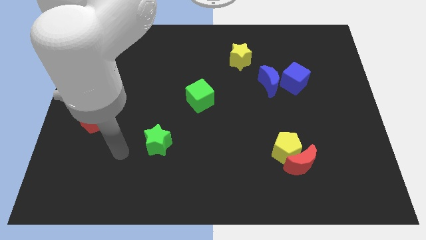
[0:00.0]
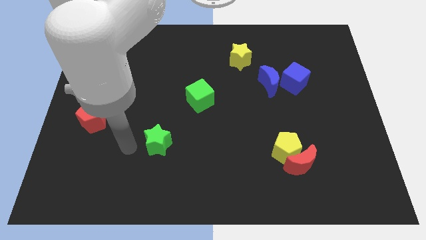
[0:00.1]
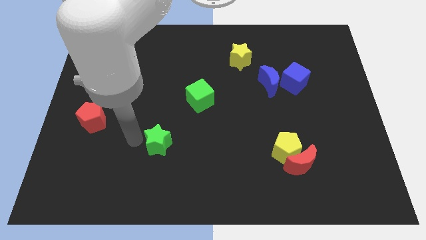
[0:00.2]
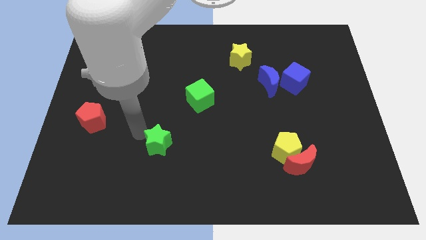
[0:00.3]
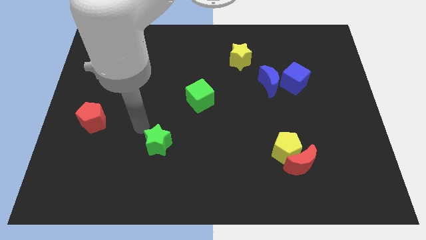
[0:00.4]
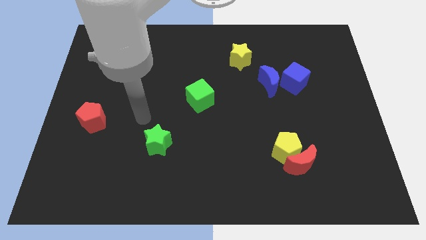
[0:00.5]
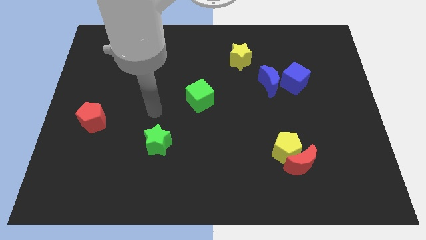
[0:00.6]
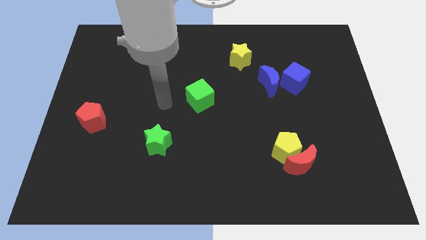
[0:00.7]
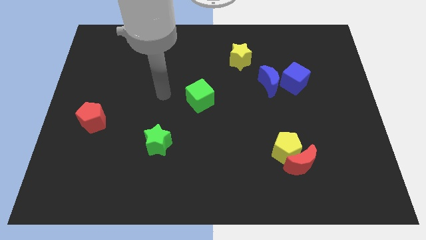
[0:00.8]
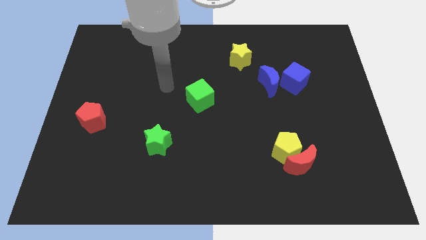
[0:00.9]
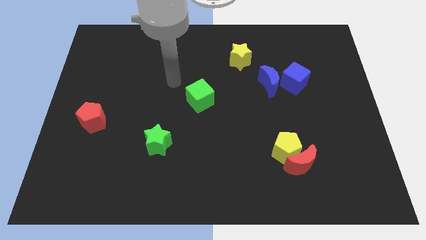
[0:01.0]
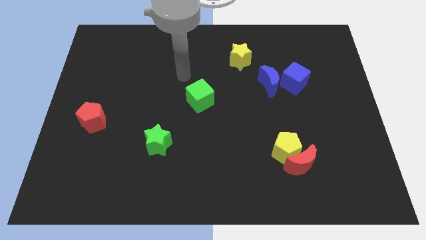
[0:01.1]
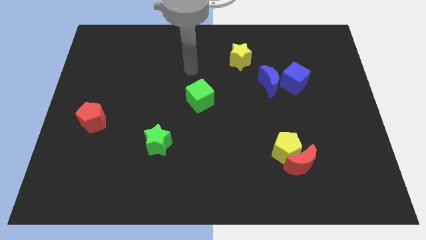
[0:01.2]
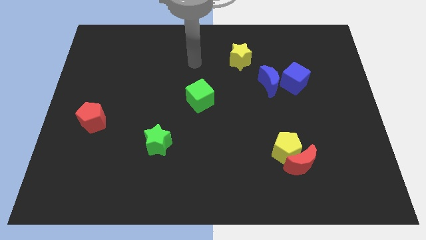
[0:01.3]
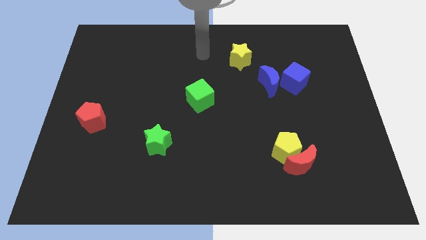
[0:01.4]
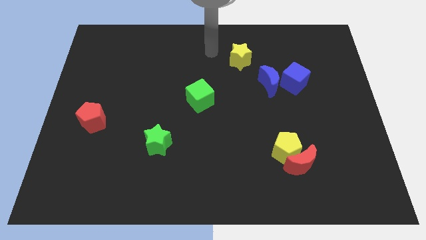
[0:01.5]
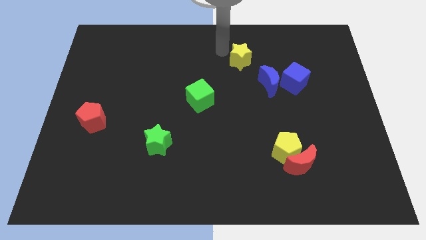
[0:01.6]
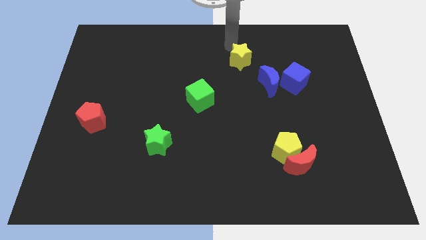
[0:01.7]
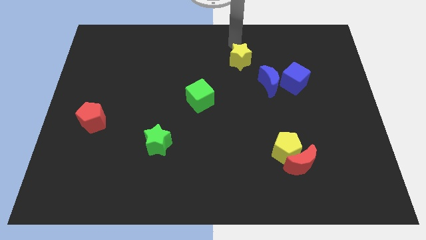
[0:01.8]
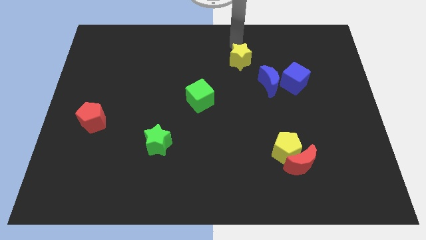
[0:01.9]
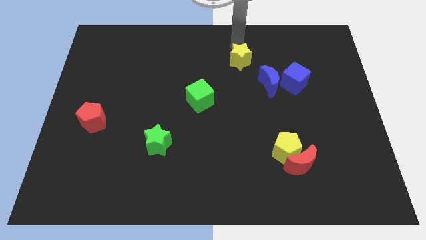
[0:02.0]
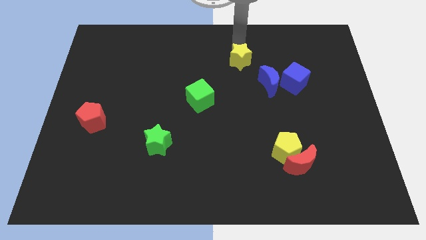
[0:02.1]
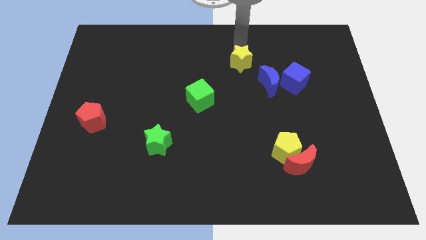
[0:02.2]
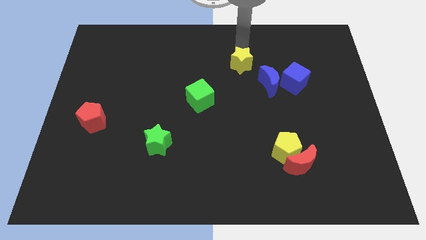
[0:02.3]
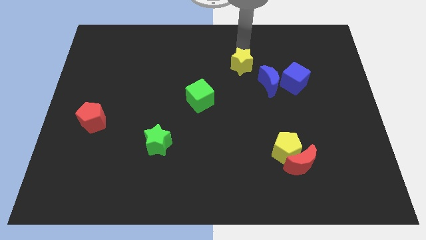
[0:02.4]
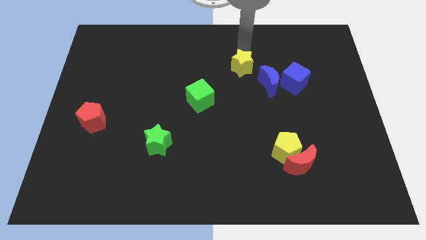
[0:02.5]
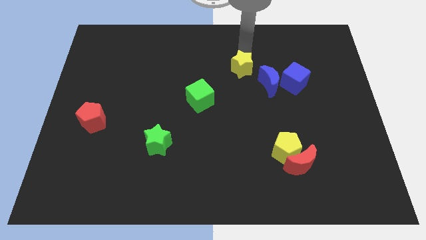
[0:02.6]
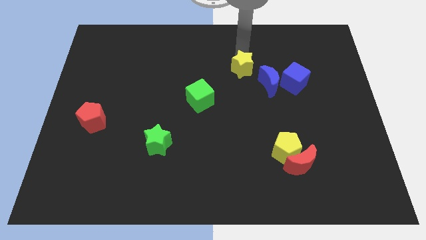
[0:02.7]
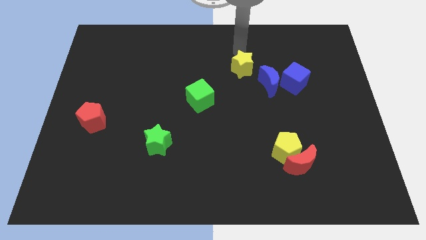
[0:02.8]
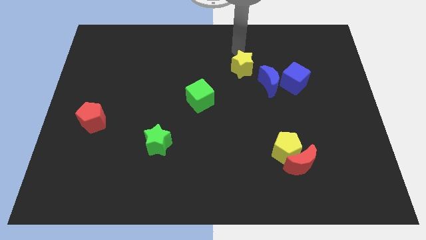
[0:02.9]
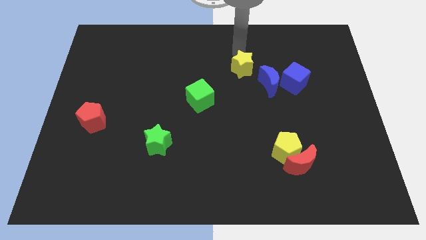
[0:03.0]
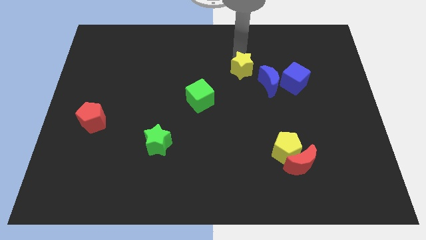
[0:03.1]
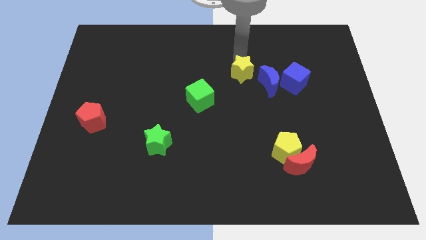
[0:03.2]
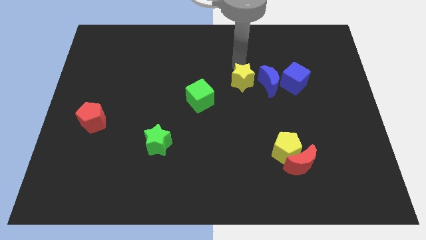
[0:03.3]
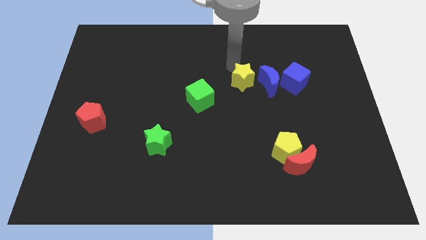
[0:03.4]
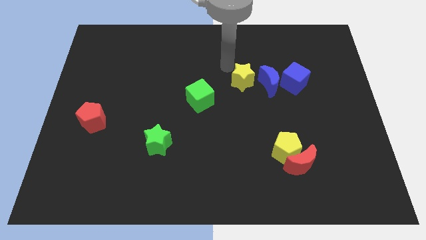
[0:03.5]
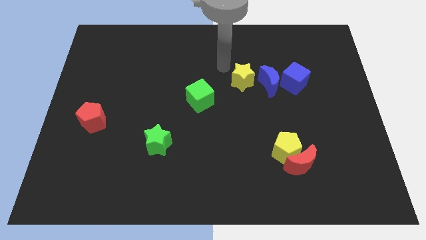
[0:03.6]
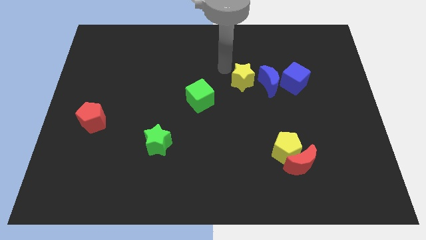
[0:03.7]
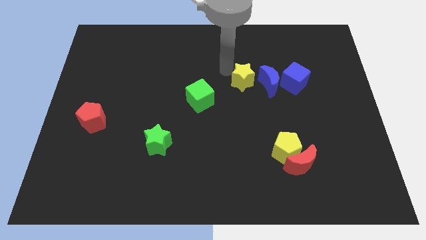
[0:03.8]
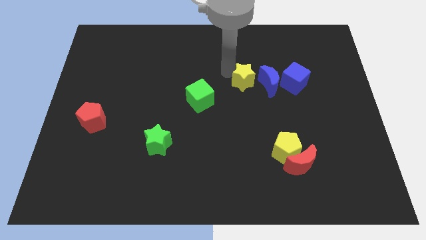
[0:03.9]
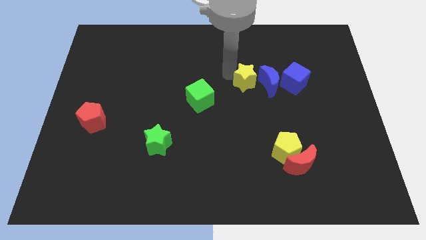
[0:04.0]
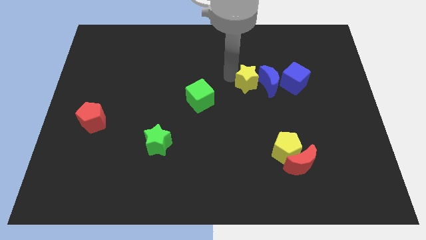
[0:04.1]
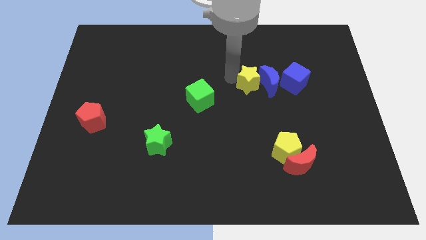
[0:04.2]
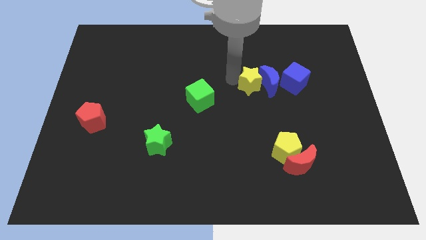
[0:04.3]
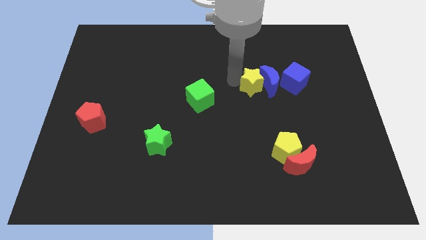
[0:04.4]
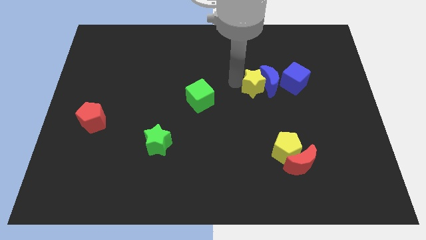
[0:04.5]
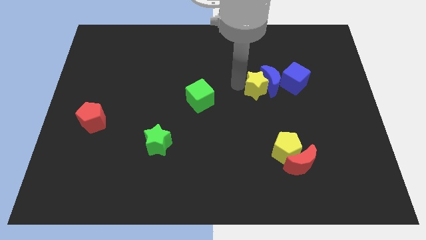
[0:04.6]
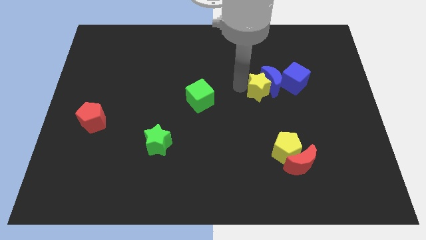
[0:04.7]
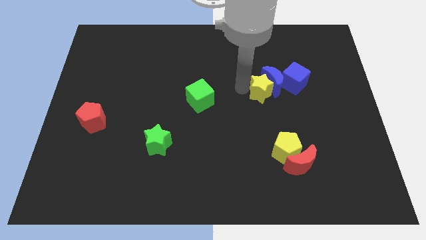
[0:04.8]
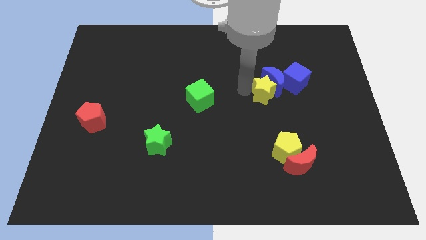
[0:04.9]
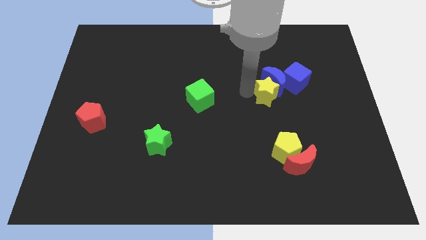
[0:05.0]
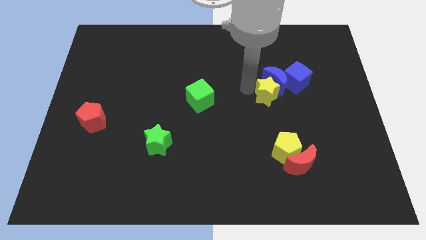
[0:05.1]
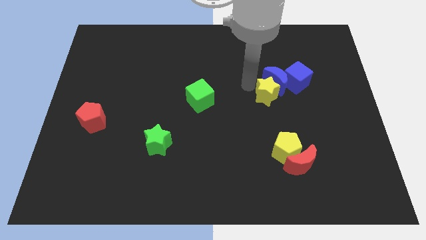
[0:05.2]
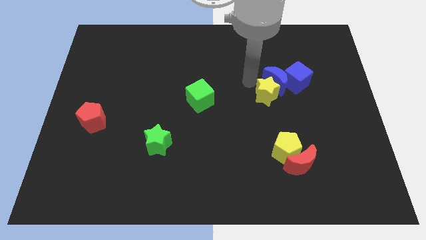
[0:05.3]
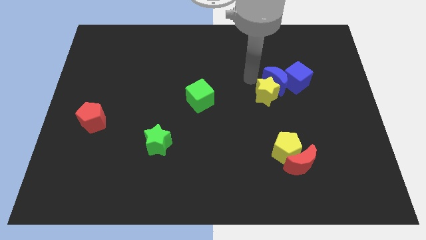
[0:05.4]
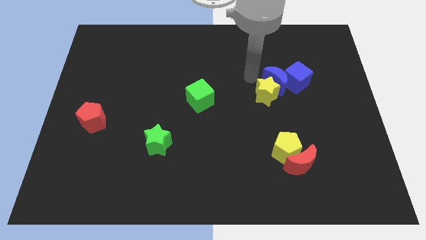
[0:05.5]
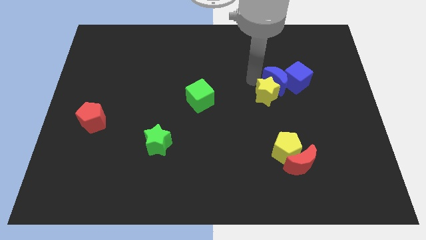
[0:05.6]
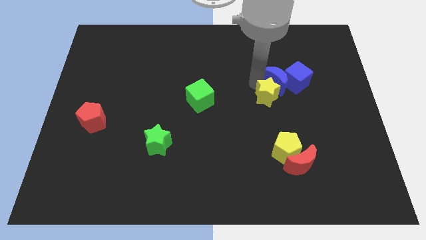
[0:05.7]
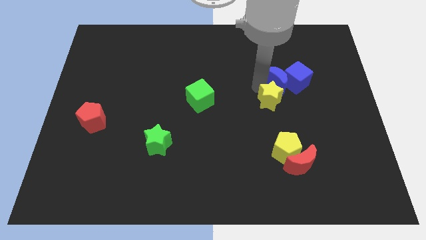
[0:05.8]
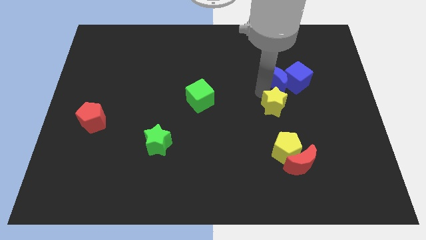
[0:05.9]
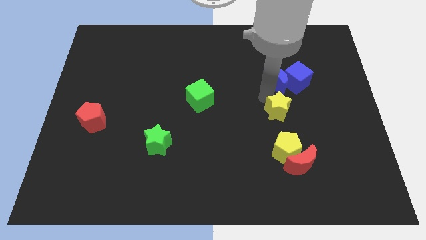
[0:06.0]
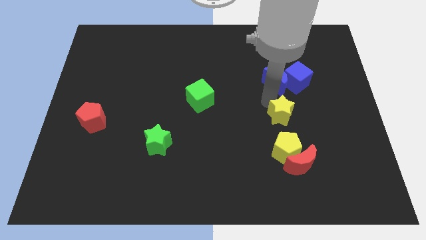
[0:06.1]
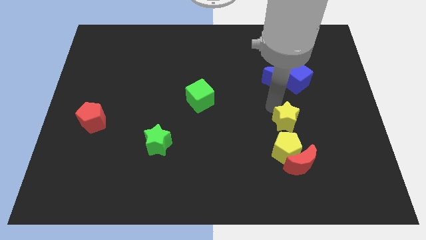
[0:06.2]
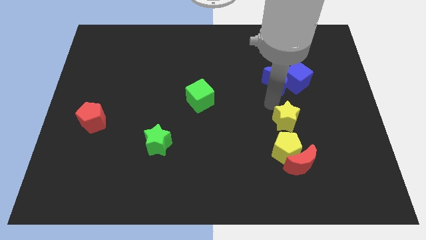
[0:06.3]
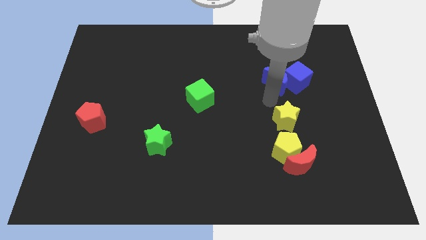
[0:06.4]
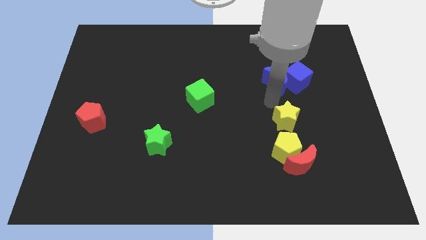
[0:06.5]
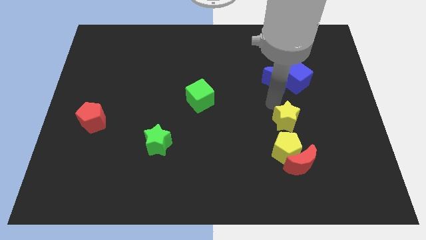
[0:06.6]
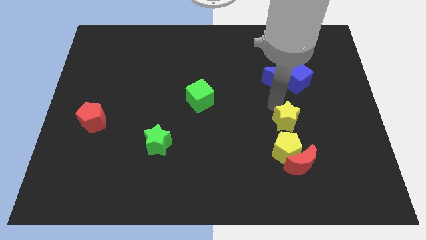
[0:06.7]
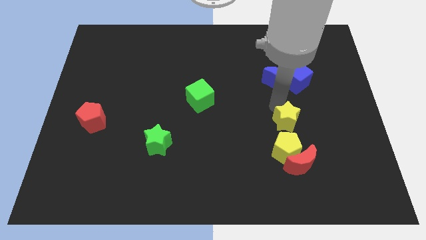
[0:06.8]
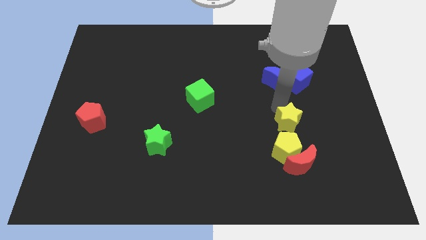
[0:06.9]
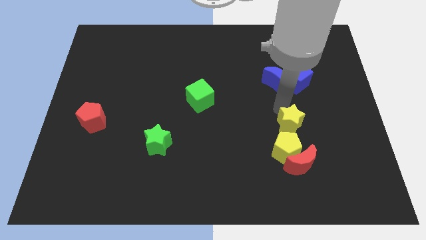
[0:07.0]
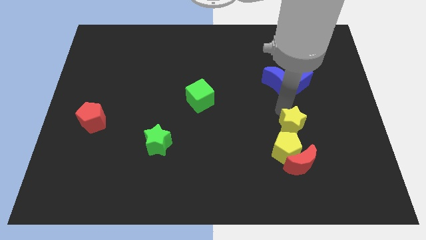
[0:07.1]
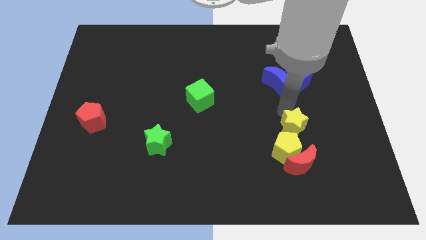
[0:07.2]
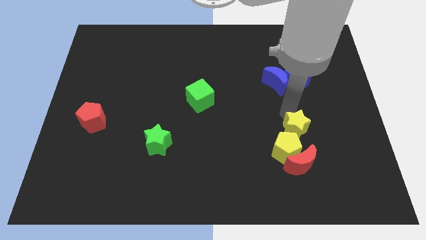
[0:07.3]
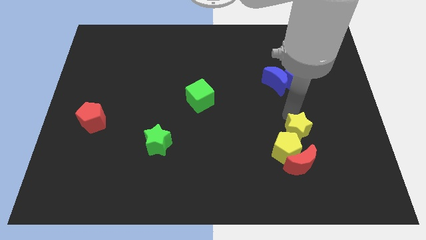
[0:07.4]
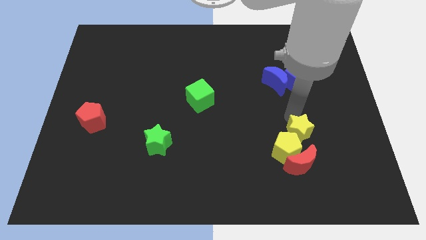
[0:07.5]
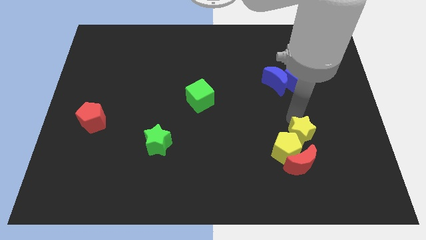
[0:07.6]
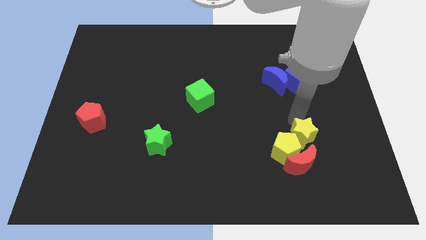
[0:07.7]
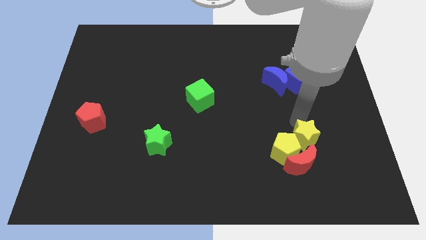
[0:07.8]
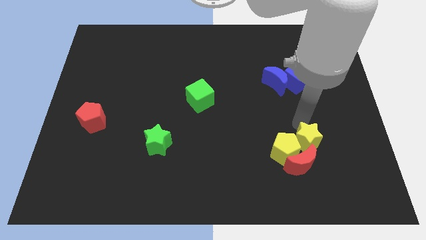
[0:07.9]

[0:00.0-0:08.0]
push the yellow star to the red moon
